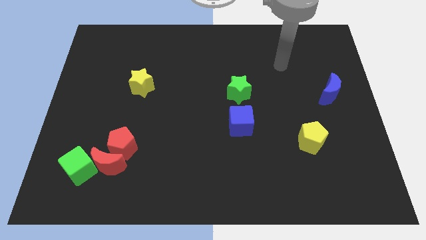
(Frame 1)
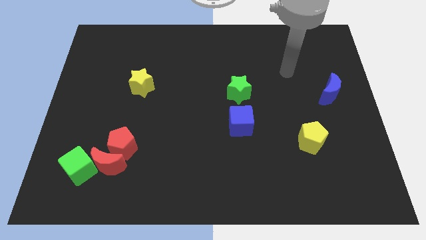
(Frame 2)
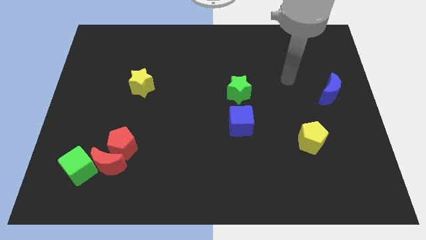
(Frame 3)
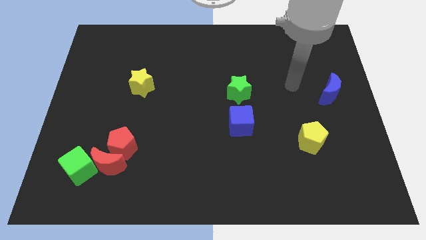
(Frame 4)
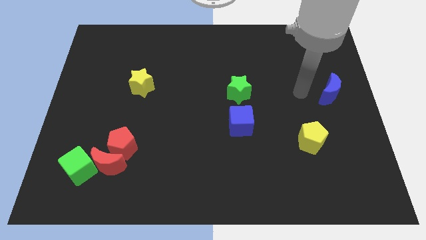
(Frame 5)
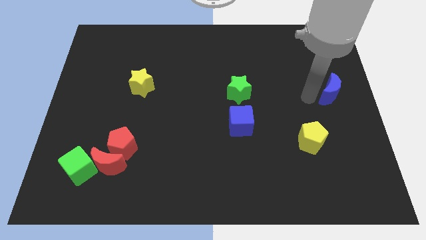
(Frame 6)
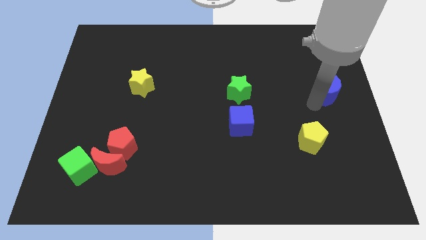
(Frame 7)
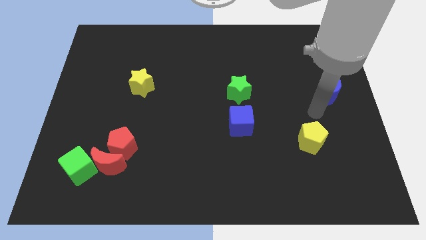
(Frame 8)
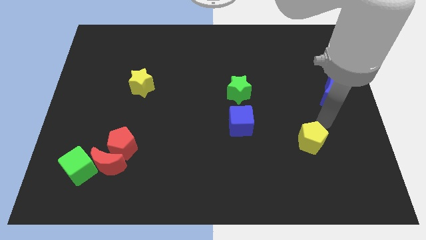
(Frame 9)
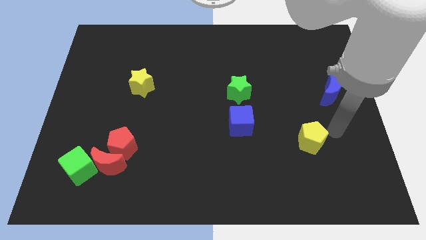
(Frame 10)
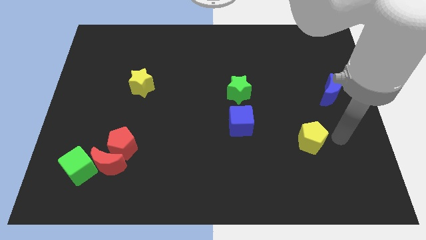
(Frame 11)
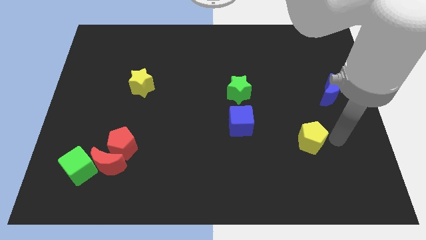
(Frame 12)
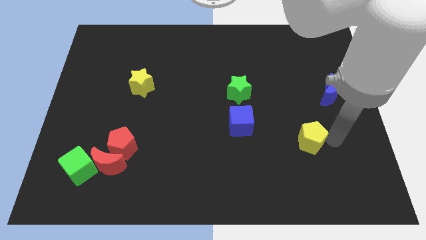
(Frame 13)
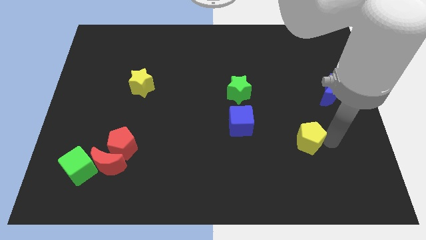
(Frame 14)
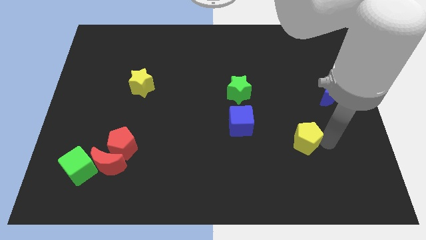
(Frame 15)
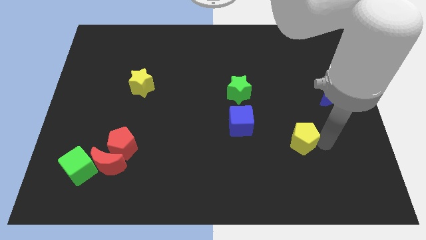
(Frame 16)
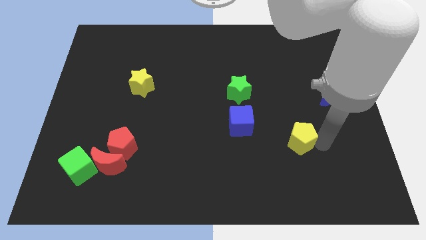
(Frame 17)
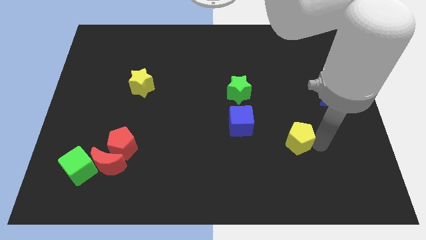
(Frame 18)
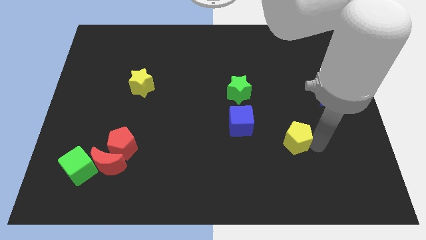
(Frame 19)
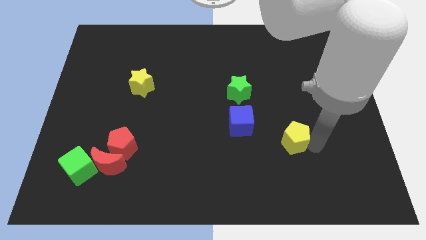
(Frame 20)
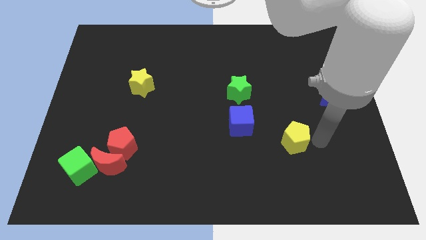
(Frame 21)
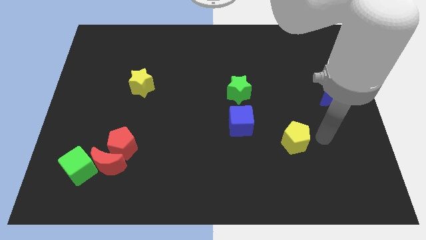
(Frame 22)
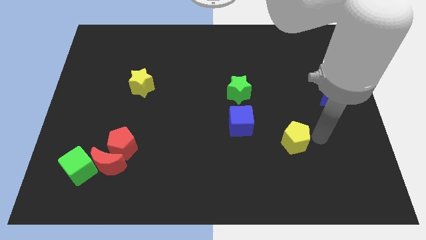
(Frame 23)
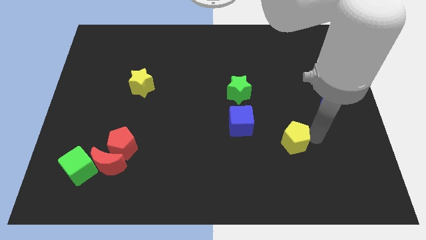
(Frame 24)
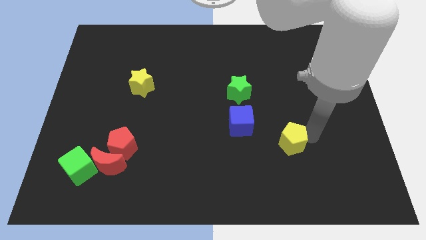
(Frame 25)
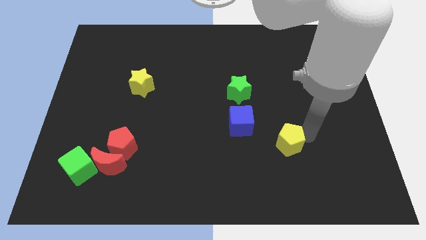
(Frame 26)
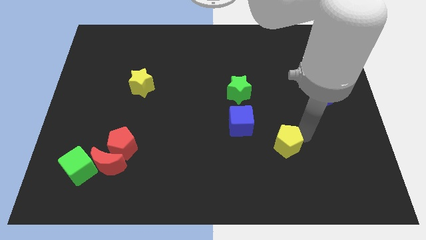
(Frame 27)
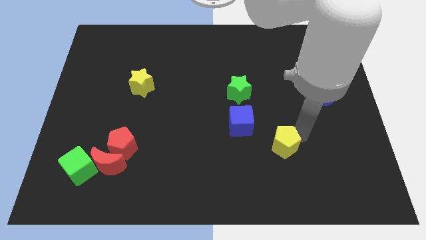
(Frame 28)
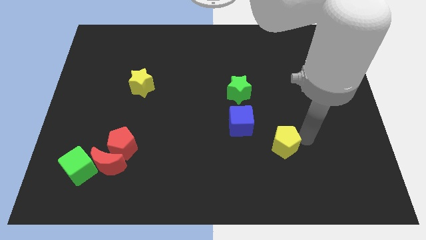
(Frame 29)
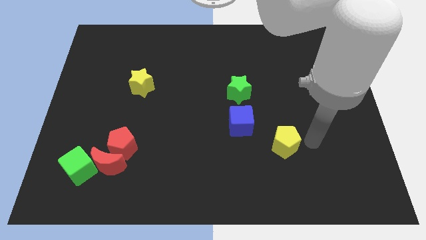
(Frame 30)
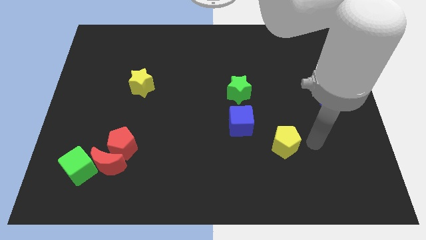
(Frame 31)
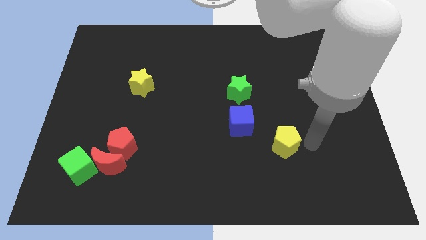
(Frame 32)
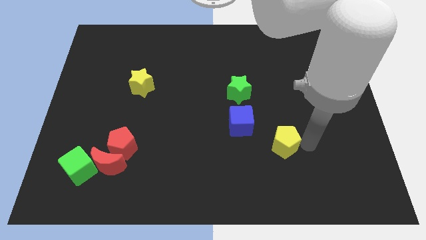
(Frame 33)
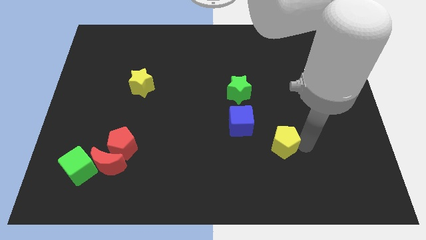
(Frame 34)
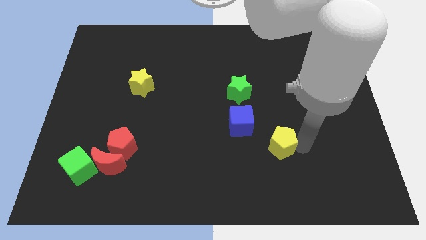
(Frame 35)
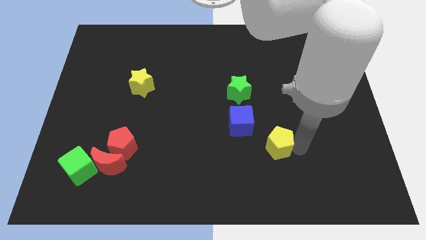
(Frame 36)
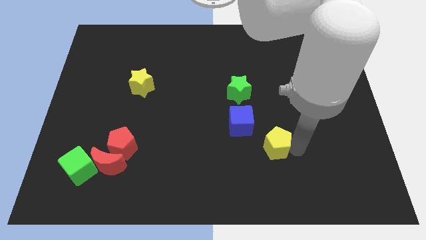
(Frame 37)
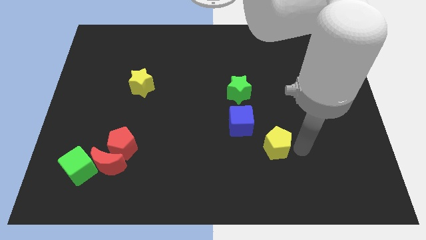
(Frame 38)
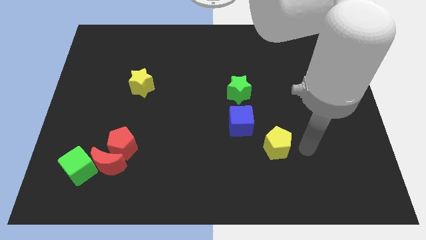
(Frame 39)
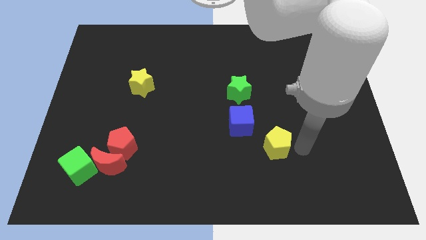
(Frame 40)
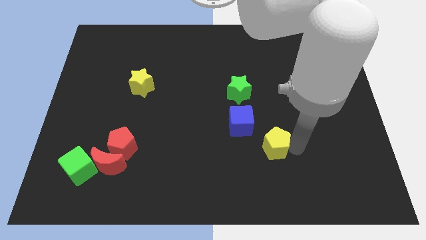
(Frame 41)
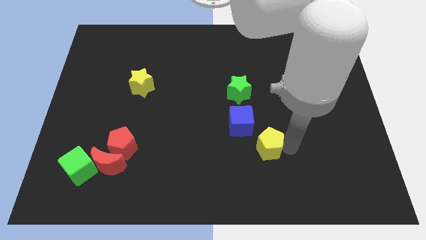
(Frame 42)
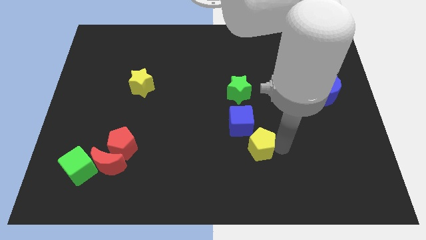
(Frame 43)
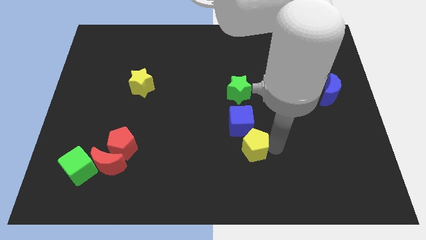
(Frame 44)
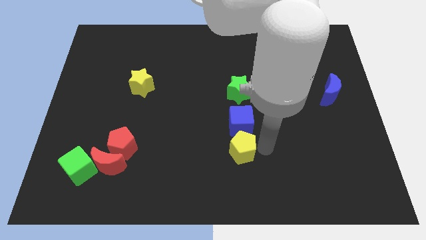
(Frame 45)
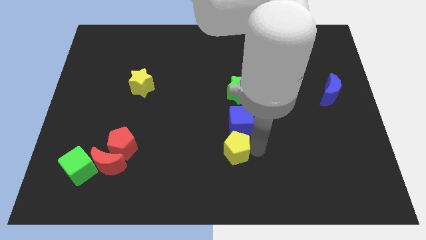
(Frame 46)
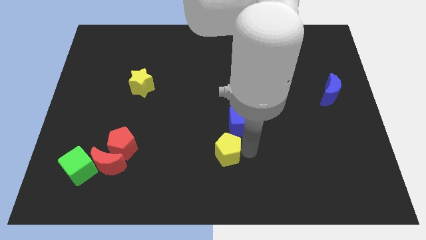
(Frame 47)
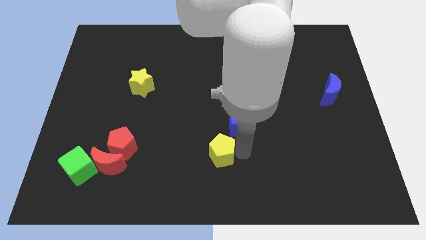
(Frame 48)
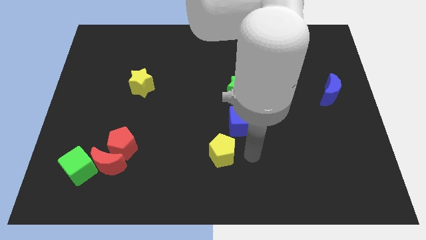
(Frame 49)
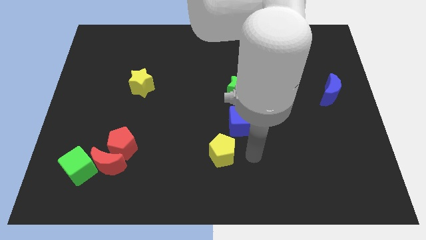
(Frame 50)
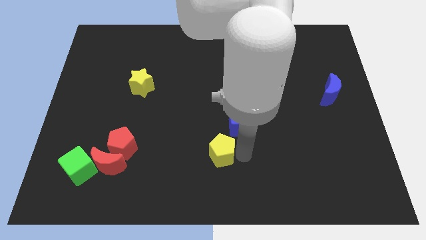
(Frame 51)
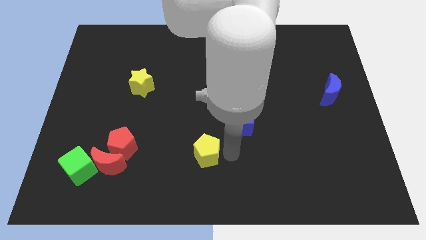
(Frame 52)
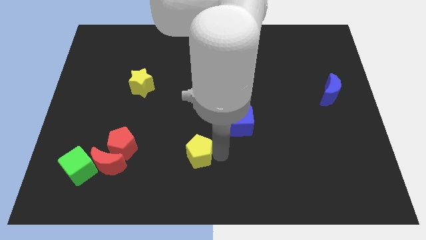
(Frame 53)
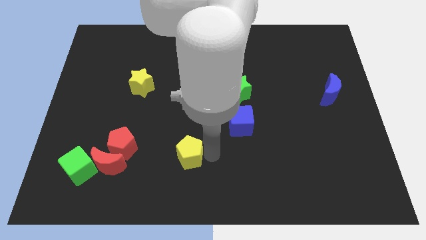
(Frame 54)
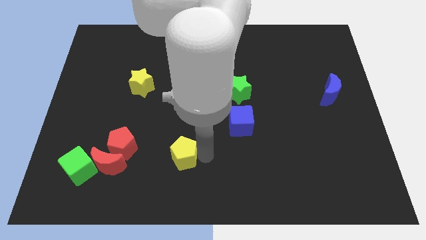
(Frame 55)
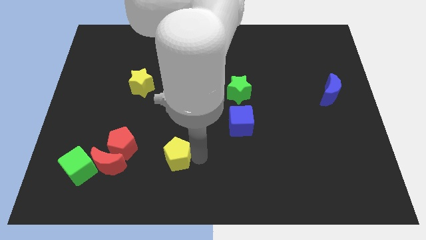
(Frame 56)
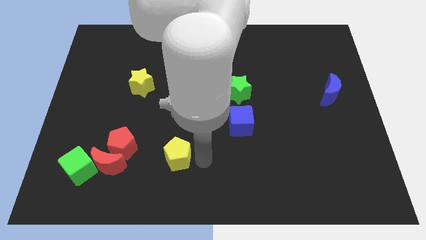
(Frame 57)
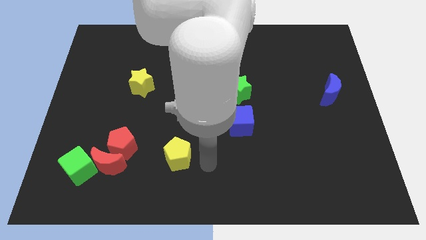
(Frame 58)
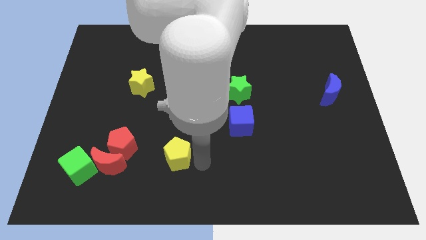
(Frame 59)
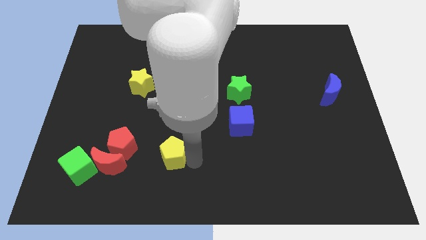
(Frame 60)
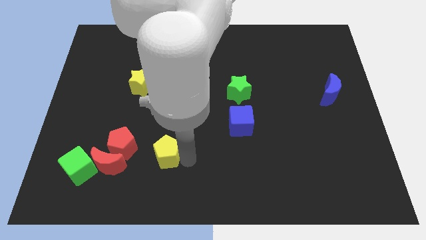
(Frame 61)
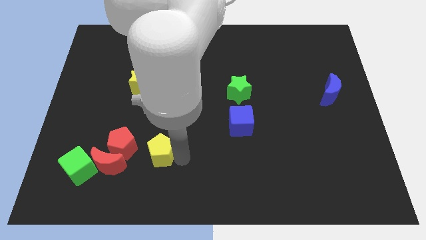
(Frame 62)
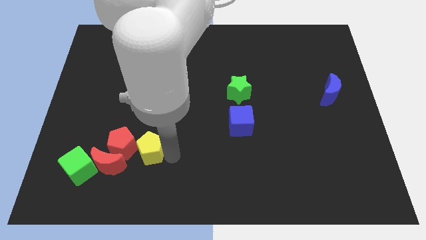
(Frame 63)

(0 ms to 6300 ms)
move the yellow pentagon close to the red pentagon

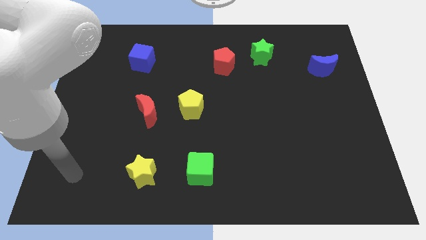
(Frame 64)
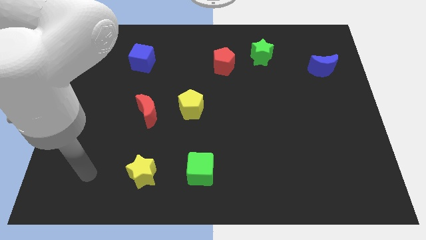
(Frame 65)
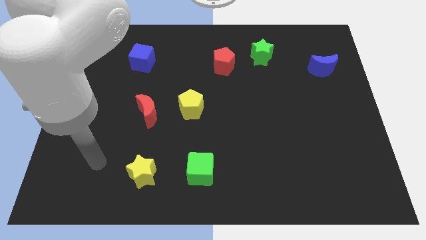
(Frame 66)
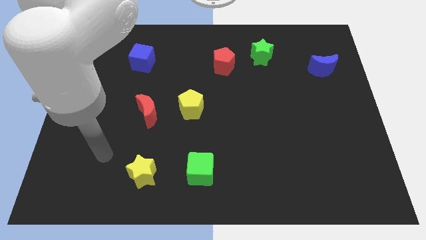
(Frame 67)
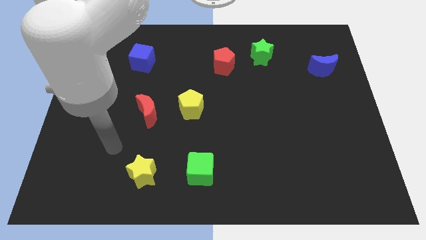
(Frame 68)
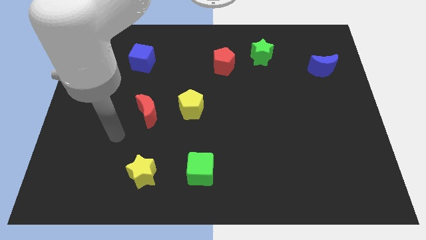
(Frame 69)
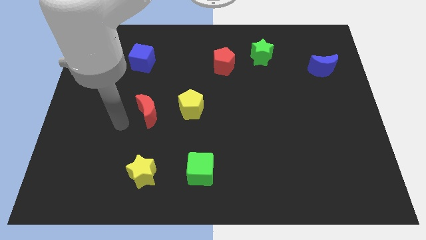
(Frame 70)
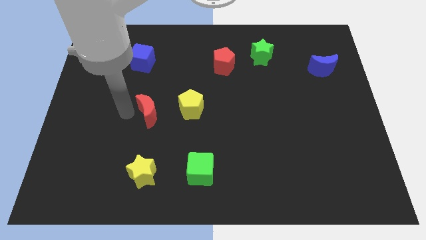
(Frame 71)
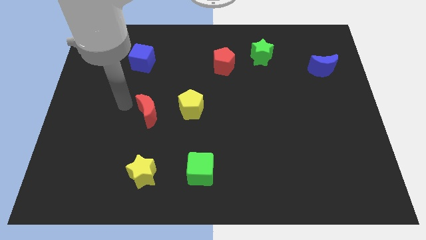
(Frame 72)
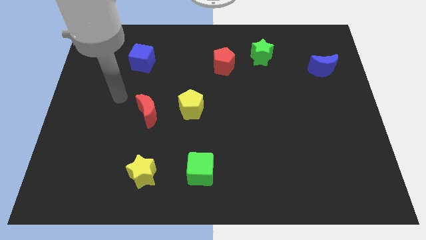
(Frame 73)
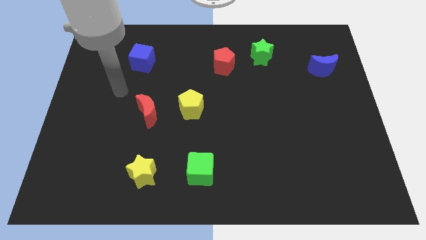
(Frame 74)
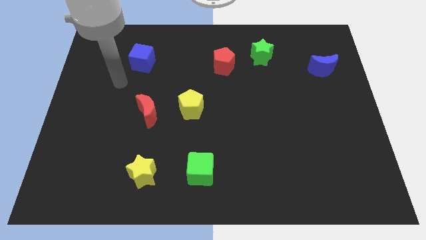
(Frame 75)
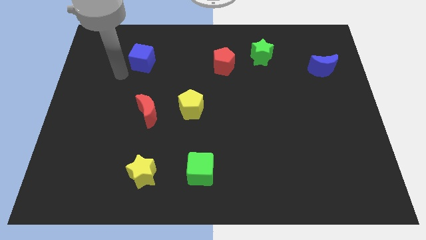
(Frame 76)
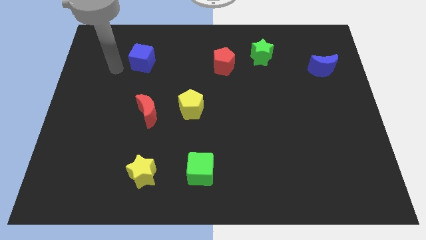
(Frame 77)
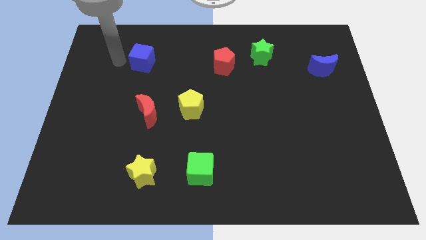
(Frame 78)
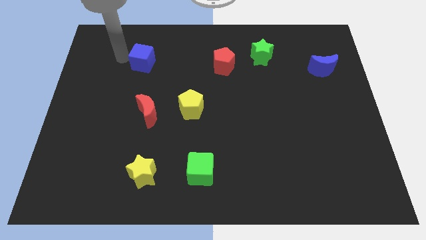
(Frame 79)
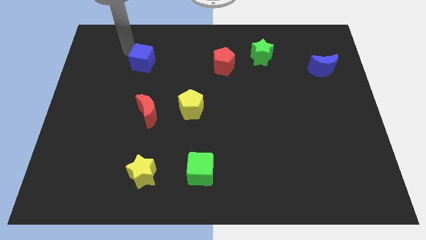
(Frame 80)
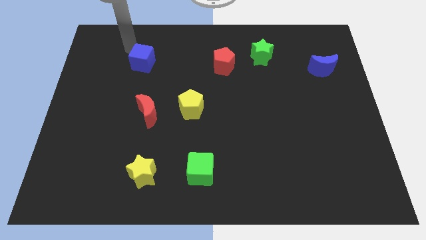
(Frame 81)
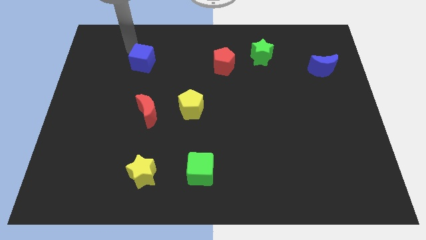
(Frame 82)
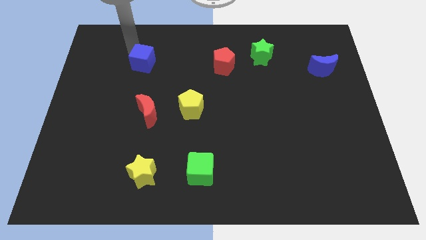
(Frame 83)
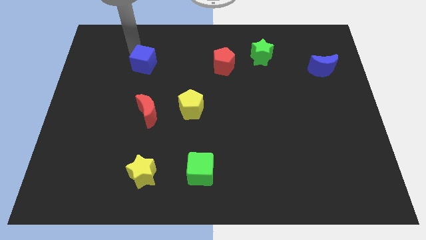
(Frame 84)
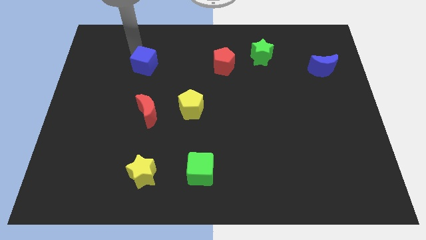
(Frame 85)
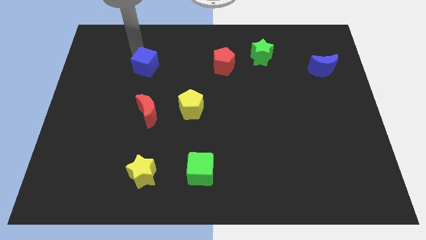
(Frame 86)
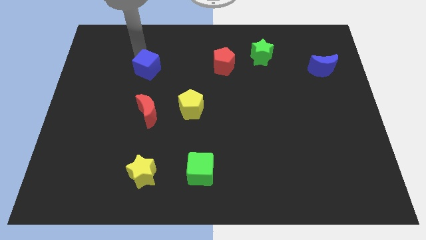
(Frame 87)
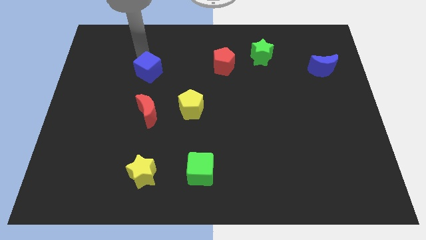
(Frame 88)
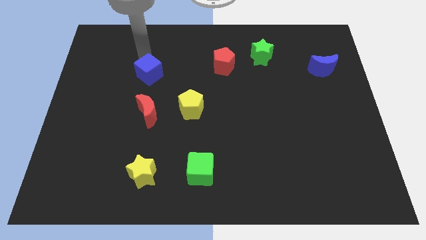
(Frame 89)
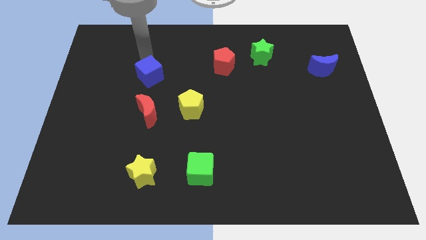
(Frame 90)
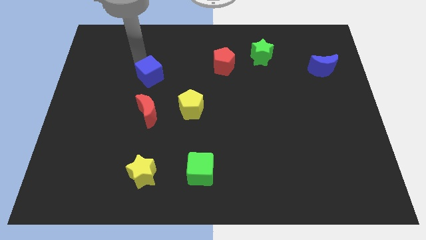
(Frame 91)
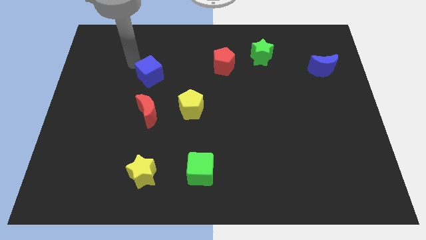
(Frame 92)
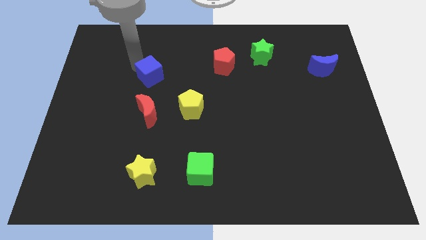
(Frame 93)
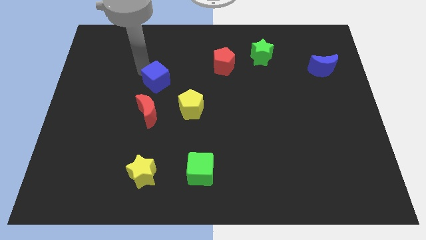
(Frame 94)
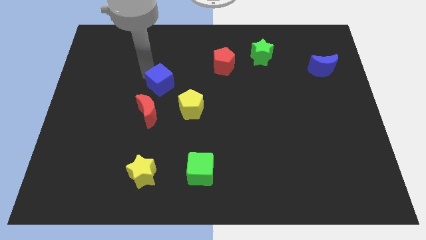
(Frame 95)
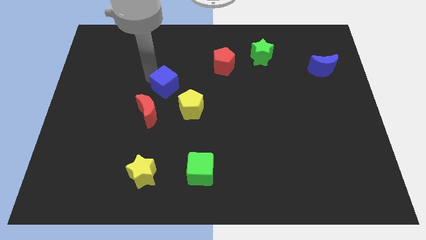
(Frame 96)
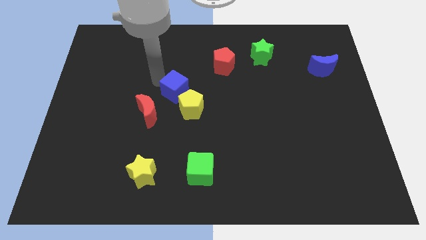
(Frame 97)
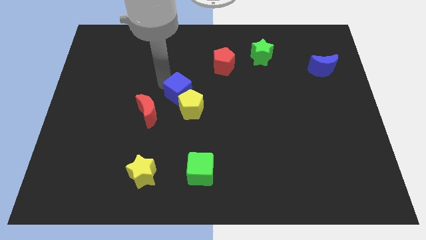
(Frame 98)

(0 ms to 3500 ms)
slide the blue cube to the yellow pentagon
